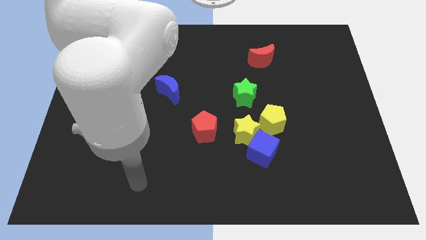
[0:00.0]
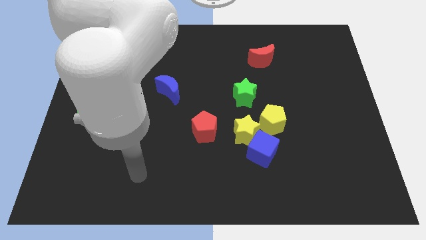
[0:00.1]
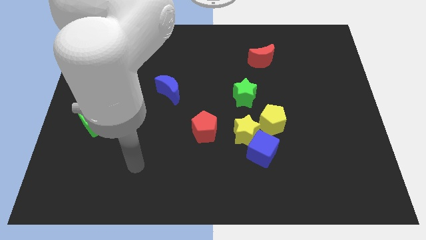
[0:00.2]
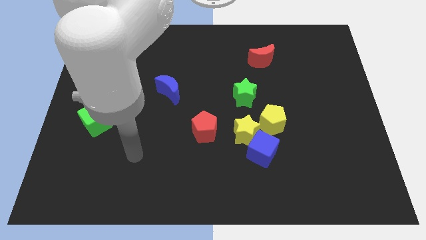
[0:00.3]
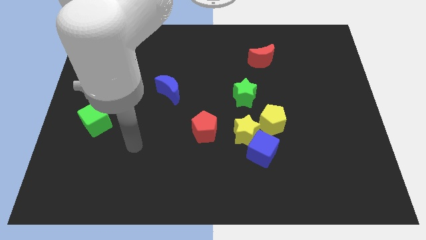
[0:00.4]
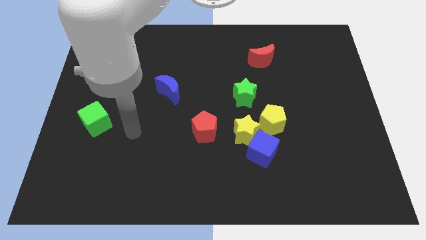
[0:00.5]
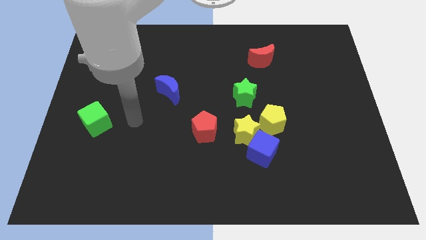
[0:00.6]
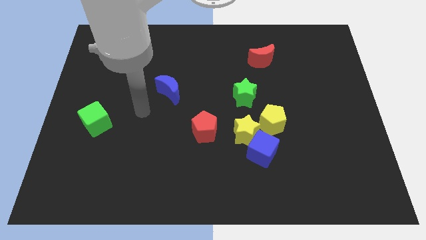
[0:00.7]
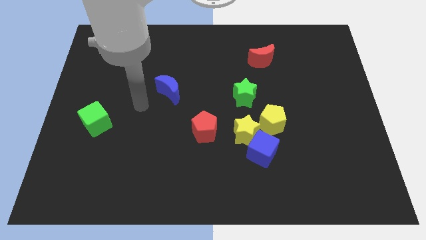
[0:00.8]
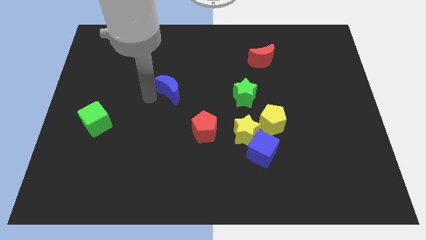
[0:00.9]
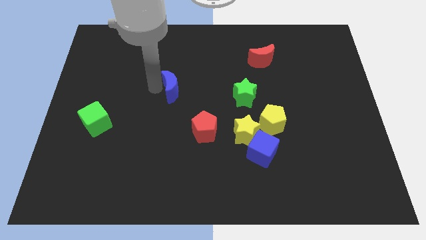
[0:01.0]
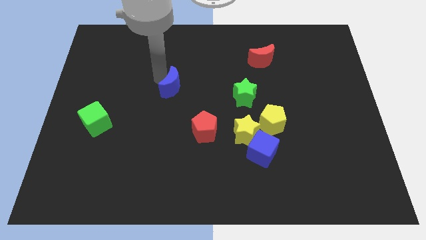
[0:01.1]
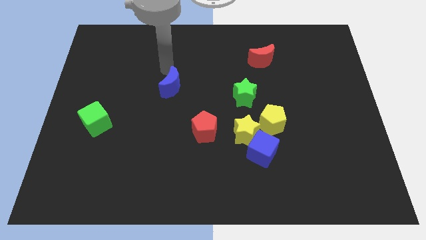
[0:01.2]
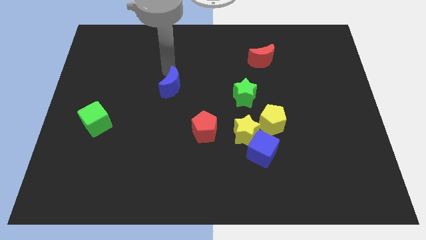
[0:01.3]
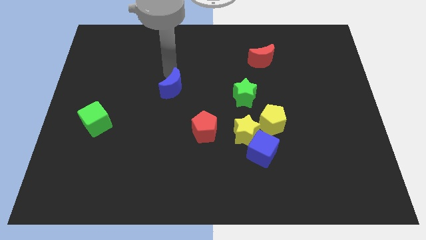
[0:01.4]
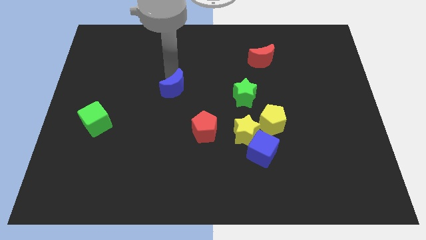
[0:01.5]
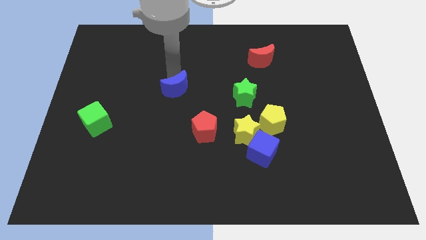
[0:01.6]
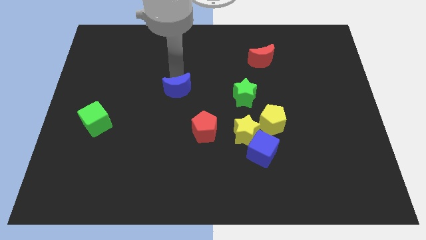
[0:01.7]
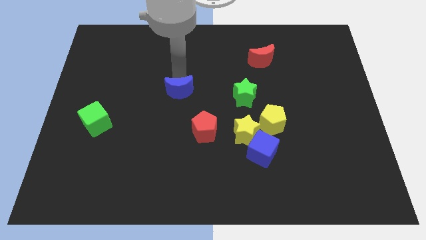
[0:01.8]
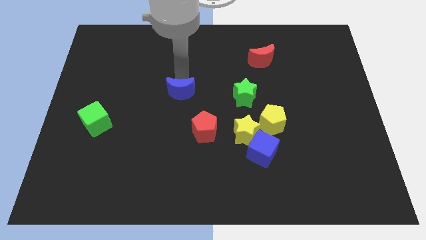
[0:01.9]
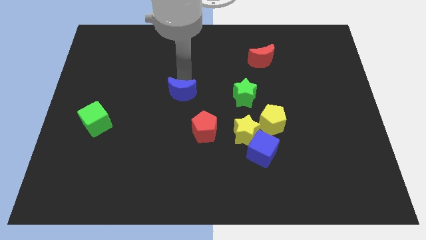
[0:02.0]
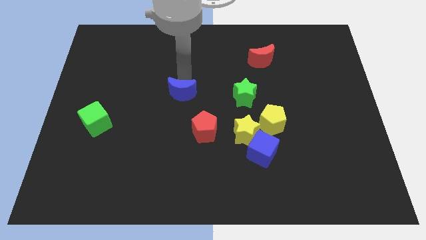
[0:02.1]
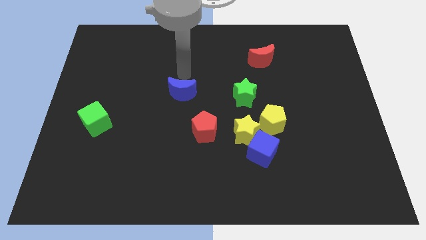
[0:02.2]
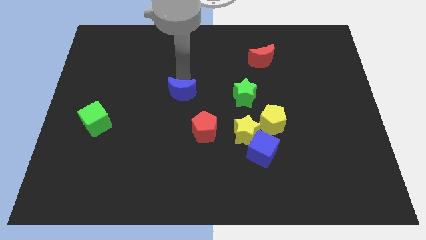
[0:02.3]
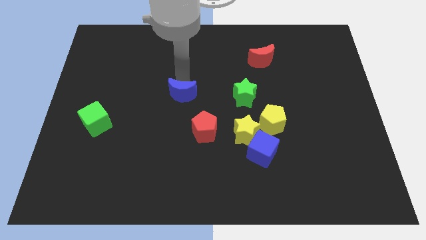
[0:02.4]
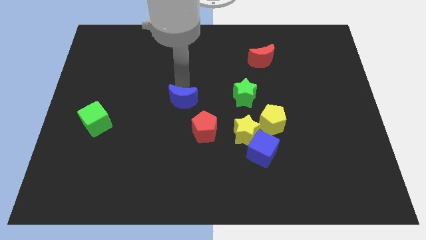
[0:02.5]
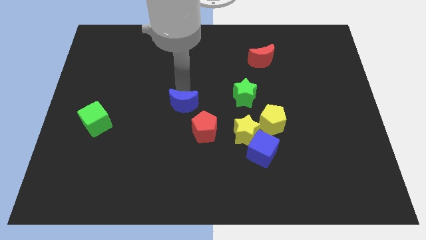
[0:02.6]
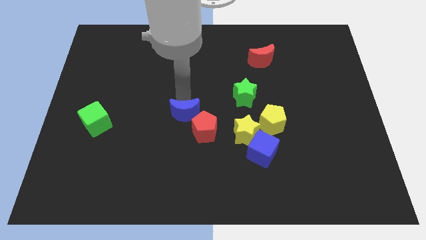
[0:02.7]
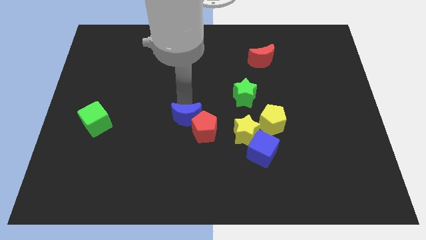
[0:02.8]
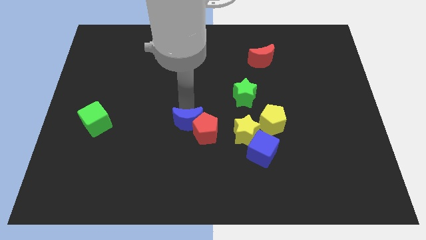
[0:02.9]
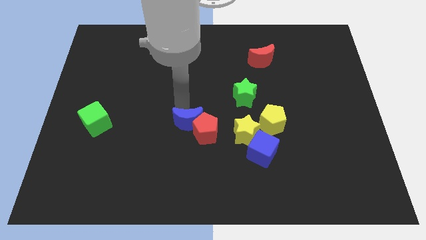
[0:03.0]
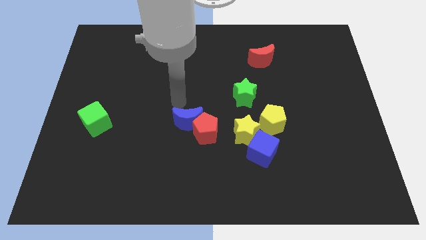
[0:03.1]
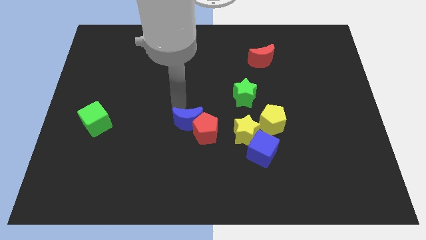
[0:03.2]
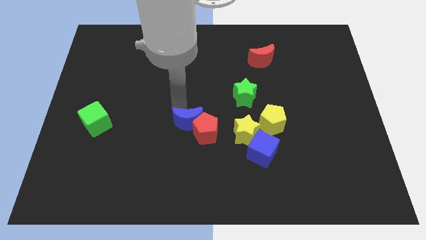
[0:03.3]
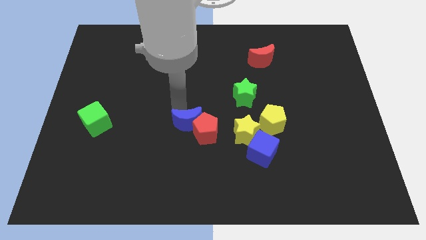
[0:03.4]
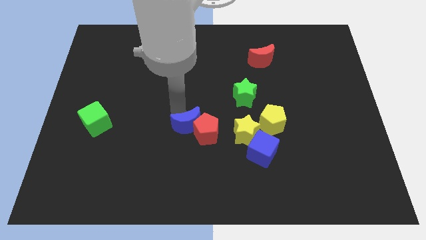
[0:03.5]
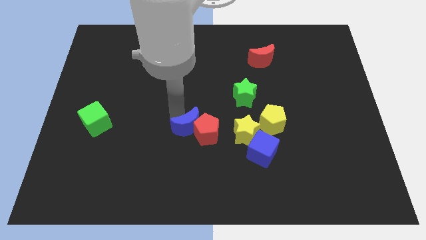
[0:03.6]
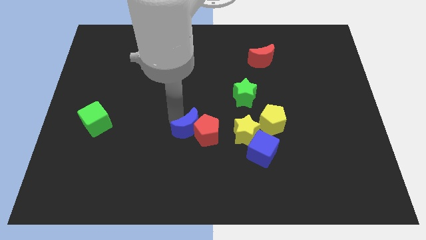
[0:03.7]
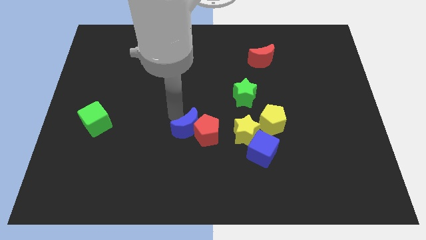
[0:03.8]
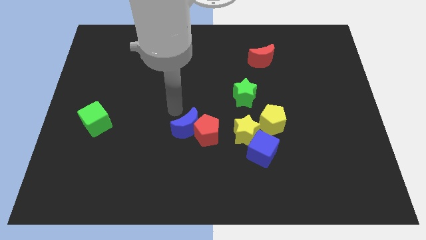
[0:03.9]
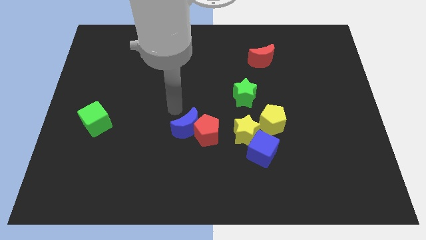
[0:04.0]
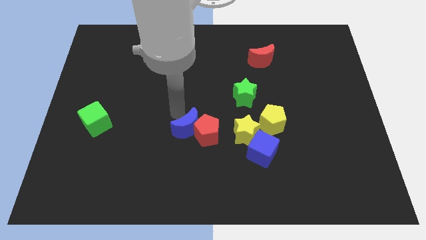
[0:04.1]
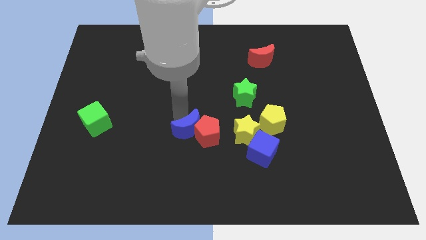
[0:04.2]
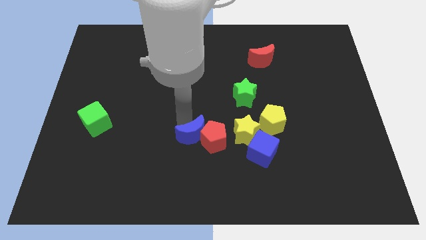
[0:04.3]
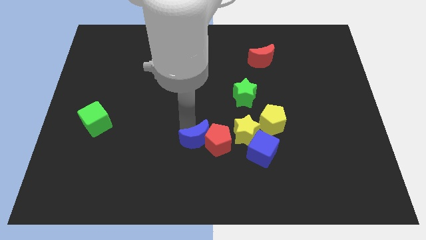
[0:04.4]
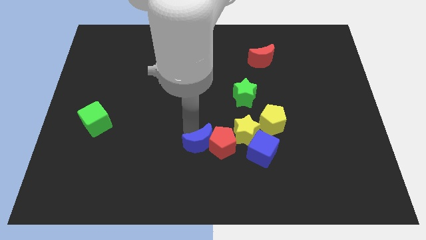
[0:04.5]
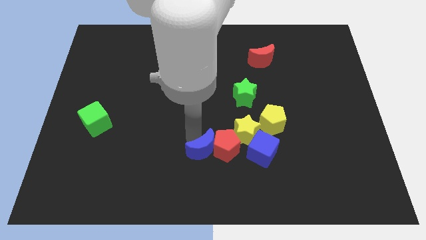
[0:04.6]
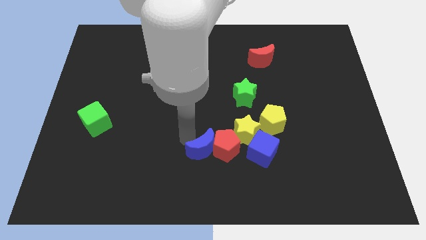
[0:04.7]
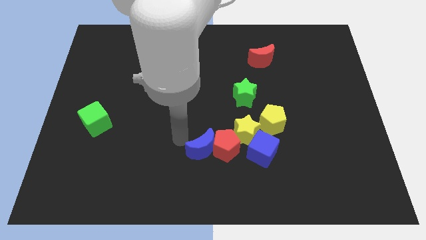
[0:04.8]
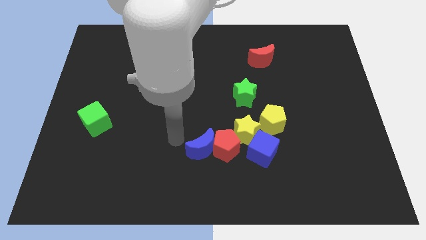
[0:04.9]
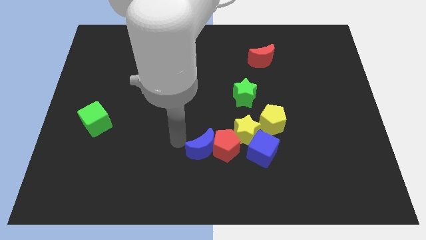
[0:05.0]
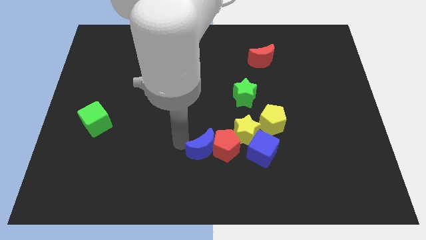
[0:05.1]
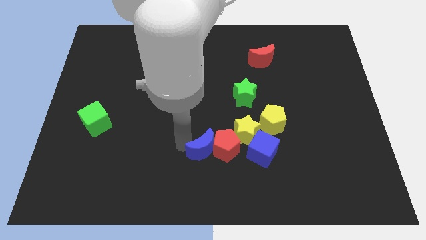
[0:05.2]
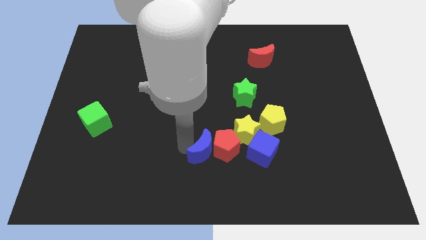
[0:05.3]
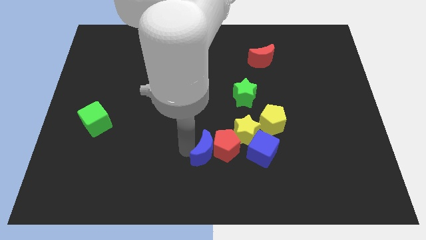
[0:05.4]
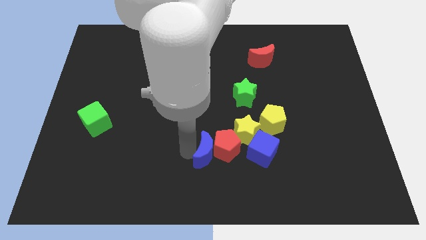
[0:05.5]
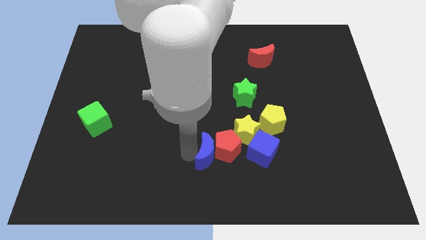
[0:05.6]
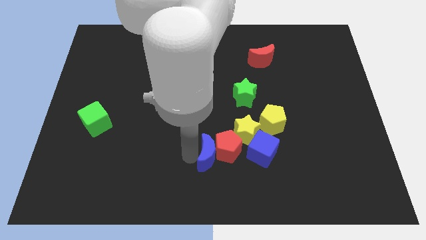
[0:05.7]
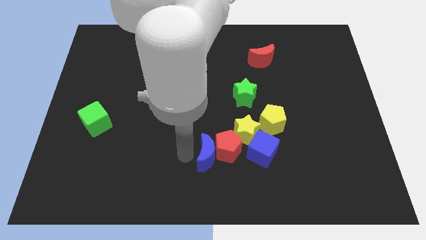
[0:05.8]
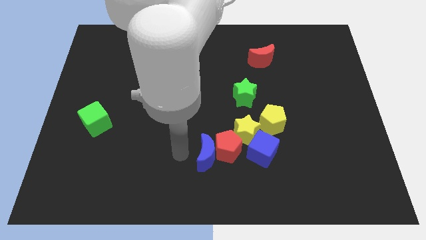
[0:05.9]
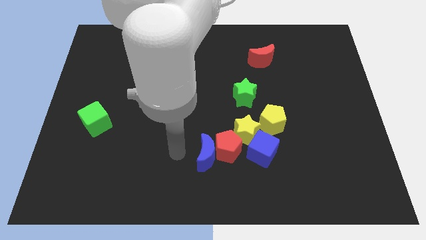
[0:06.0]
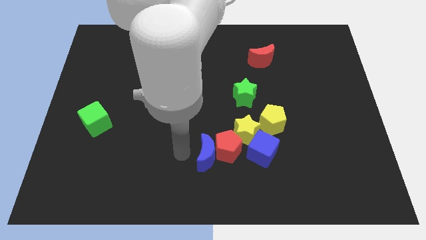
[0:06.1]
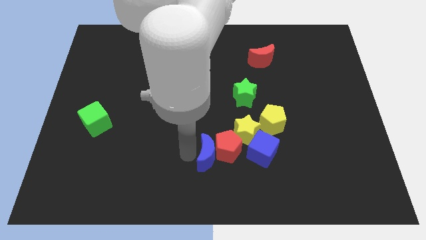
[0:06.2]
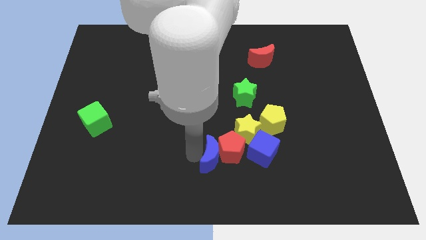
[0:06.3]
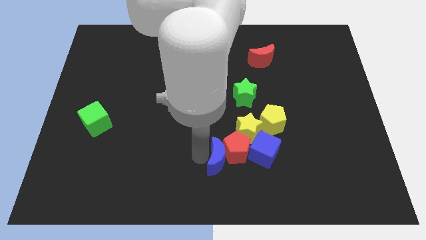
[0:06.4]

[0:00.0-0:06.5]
push the blue moon diagonally downwards and to the right

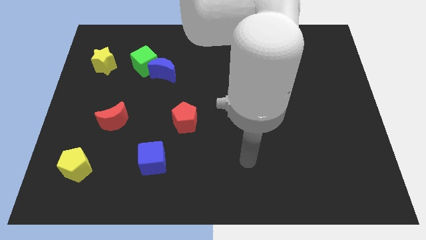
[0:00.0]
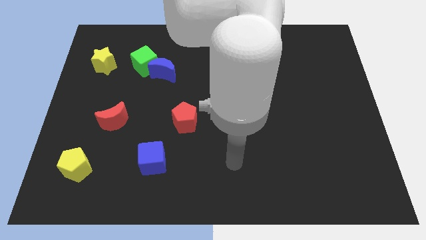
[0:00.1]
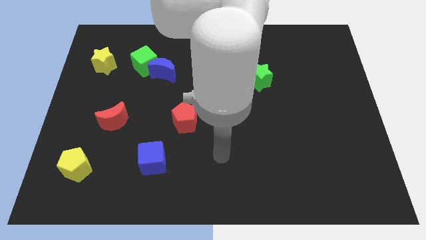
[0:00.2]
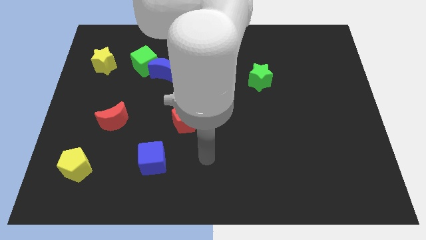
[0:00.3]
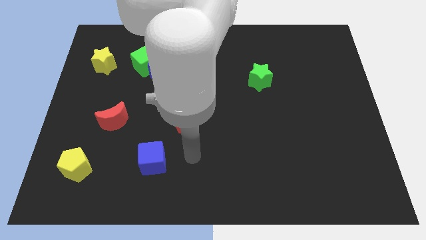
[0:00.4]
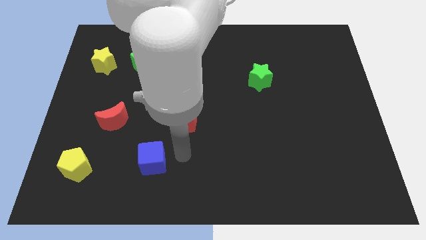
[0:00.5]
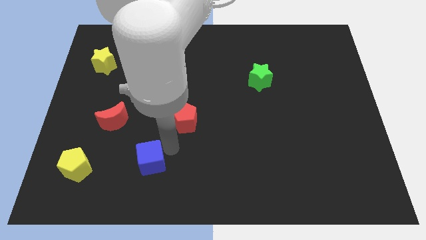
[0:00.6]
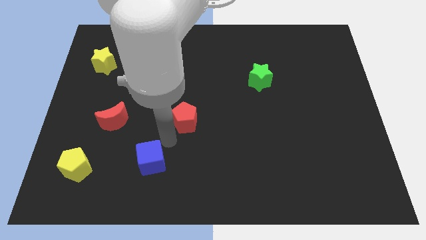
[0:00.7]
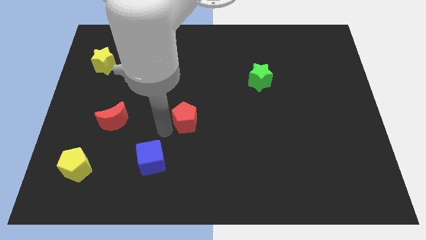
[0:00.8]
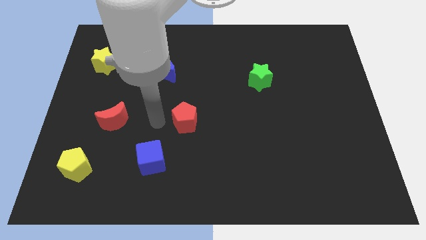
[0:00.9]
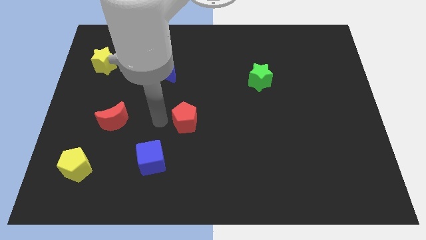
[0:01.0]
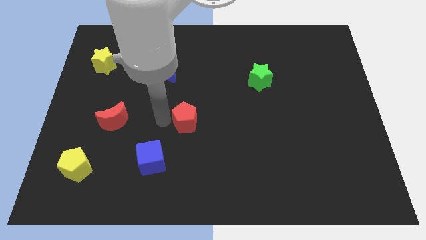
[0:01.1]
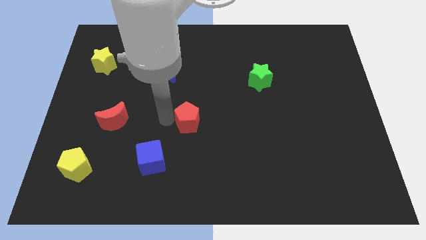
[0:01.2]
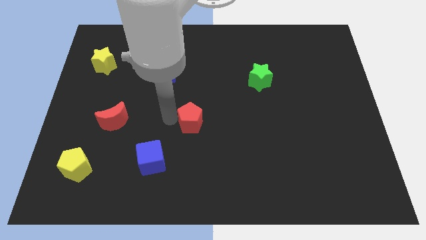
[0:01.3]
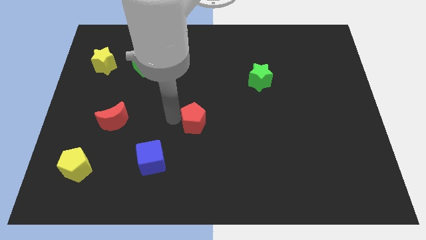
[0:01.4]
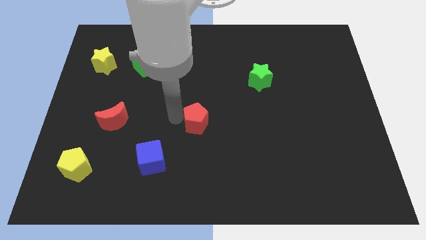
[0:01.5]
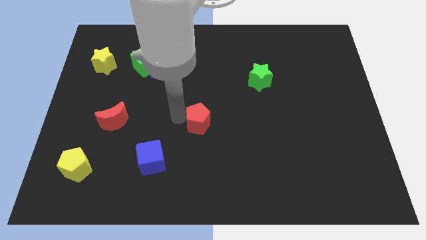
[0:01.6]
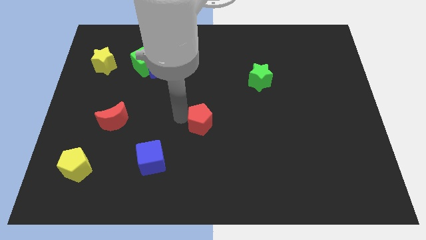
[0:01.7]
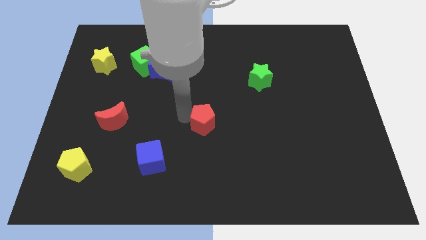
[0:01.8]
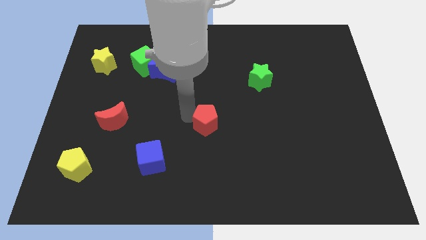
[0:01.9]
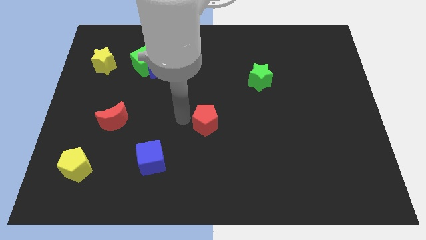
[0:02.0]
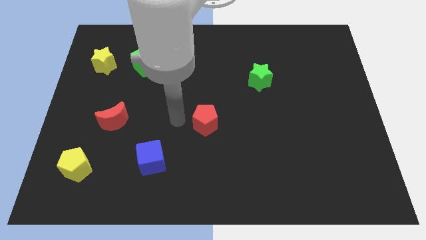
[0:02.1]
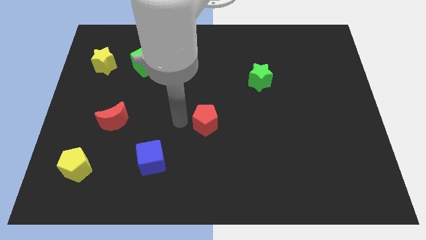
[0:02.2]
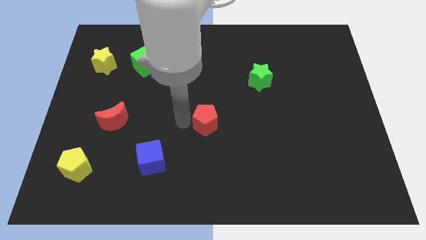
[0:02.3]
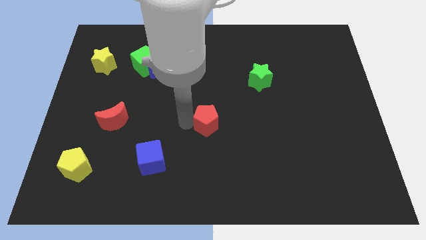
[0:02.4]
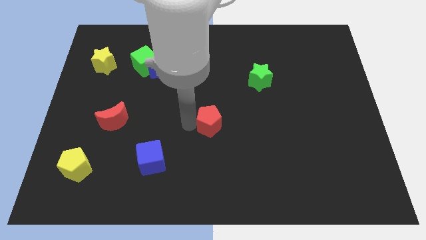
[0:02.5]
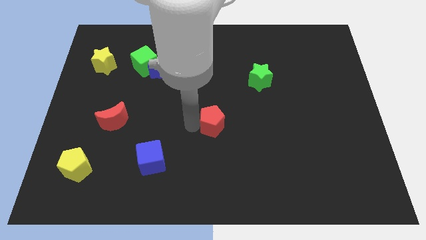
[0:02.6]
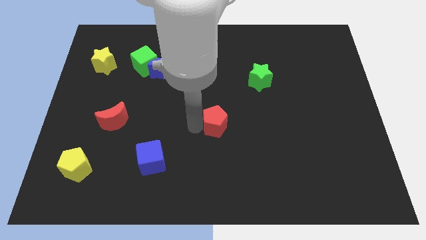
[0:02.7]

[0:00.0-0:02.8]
slightly slide the red pentagon right
